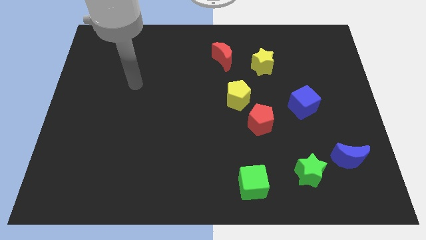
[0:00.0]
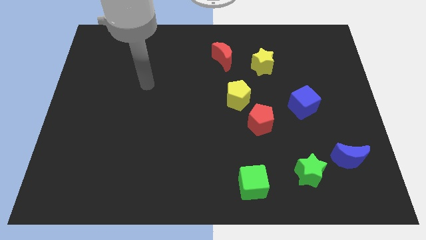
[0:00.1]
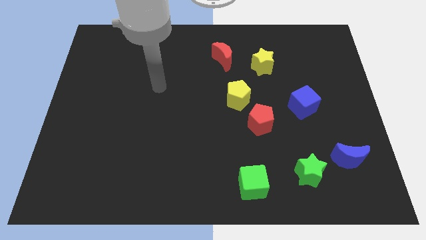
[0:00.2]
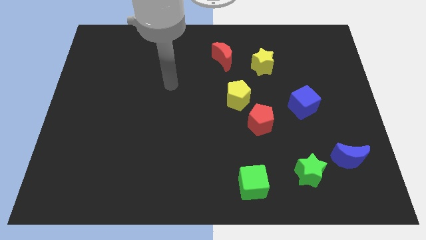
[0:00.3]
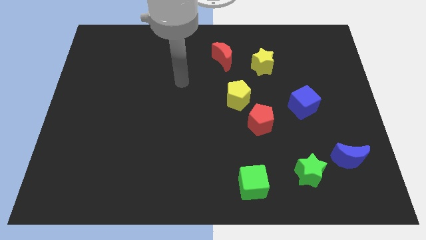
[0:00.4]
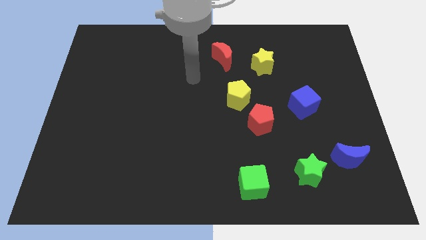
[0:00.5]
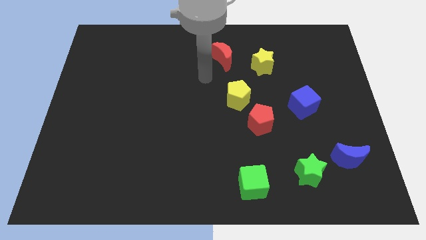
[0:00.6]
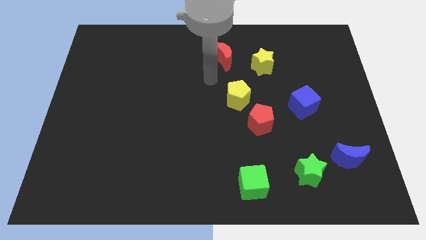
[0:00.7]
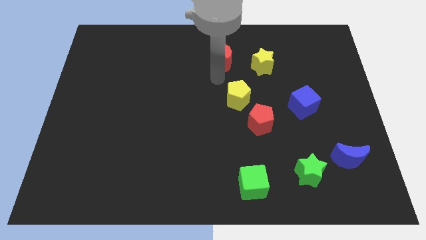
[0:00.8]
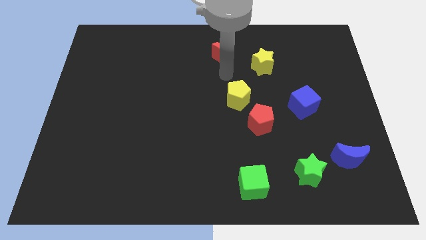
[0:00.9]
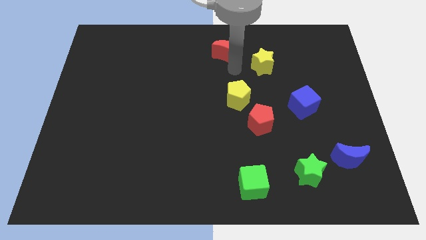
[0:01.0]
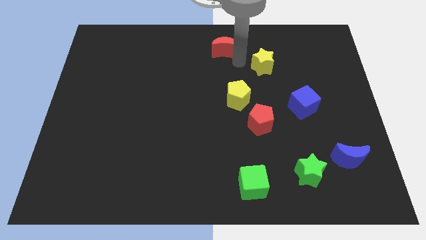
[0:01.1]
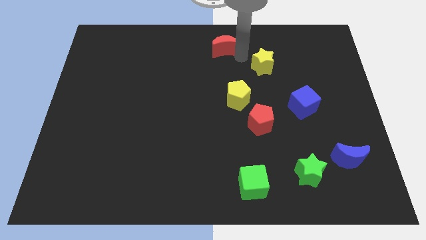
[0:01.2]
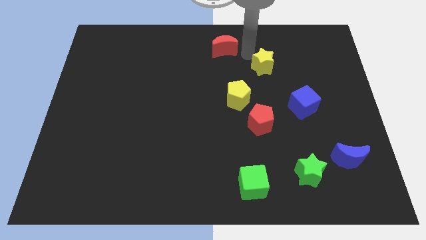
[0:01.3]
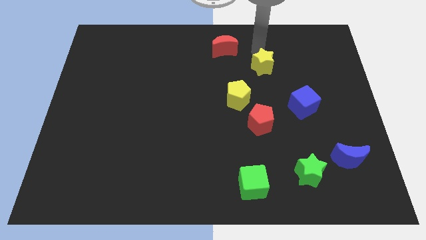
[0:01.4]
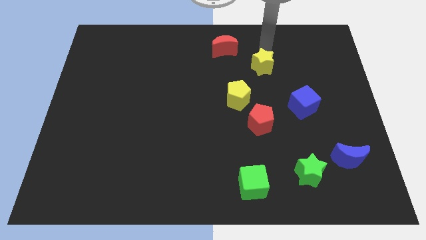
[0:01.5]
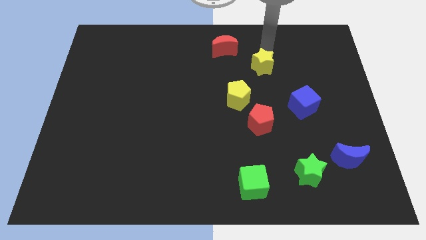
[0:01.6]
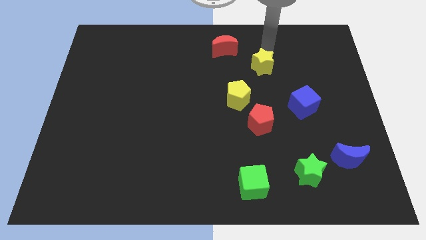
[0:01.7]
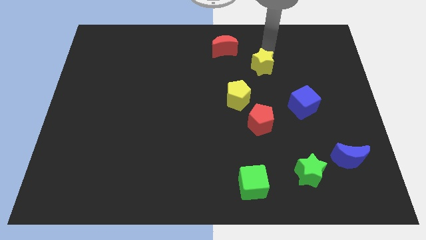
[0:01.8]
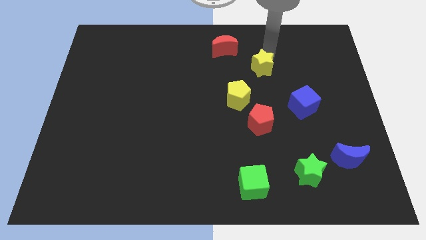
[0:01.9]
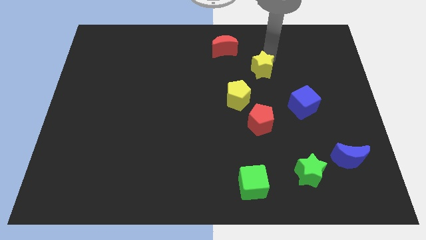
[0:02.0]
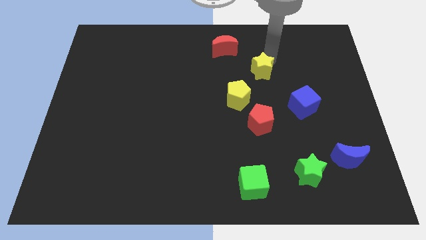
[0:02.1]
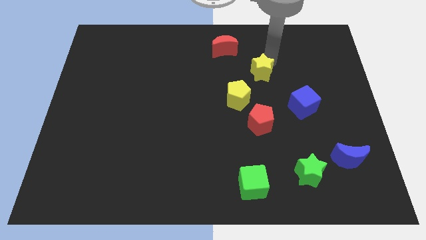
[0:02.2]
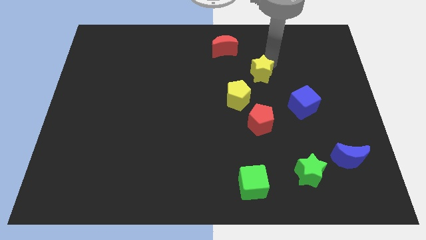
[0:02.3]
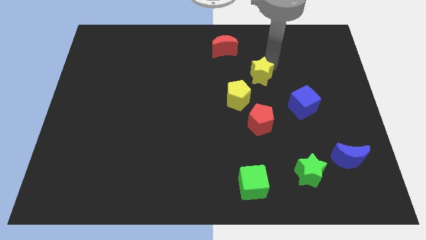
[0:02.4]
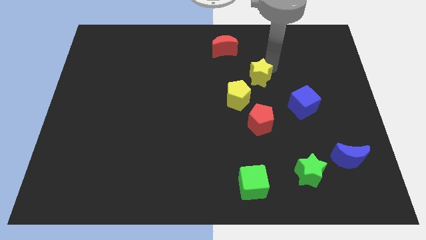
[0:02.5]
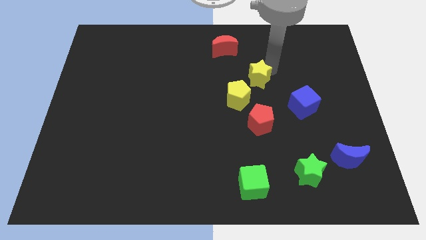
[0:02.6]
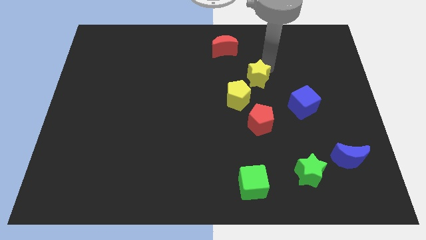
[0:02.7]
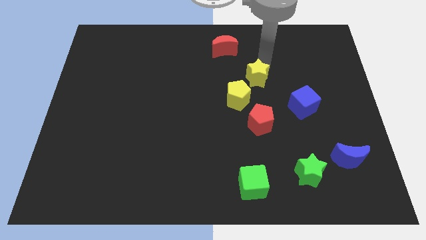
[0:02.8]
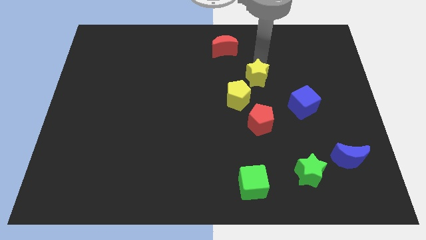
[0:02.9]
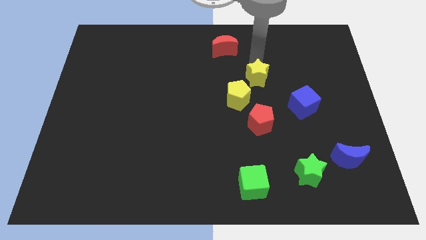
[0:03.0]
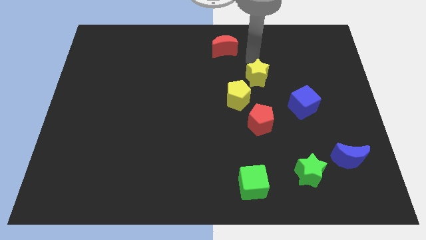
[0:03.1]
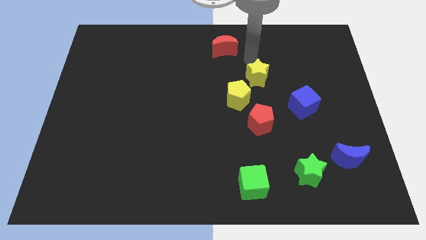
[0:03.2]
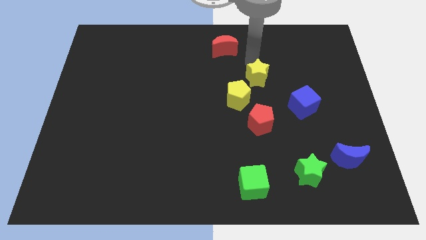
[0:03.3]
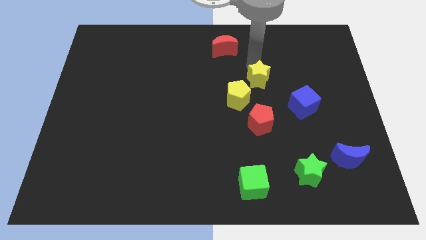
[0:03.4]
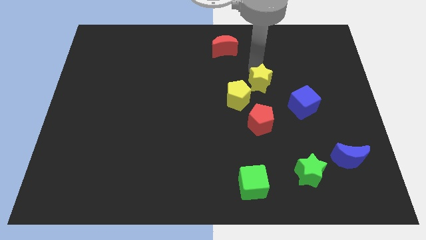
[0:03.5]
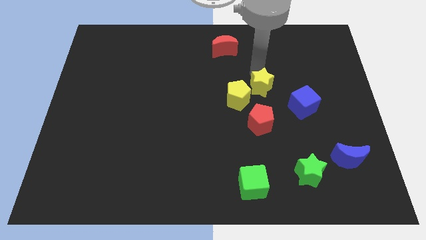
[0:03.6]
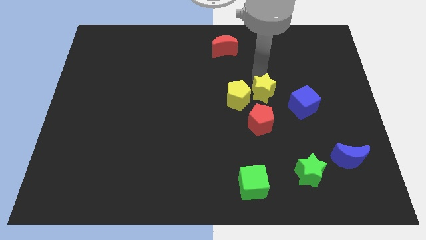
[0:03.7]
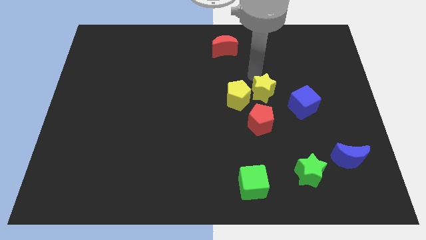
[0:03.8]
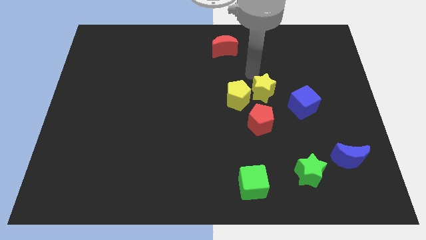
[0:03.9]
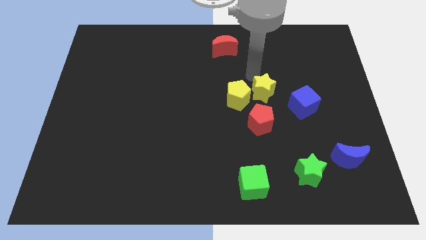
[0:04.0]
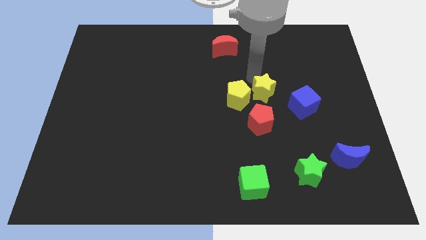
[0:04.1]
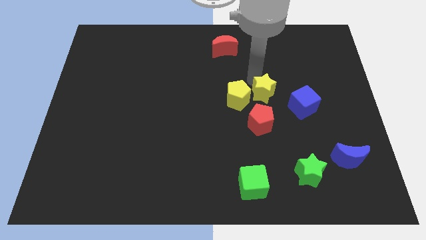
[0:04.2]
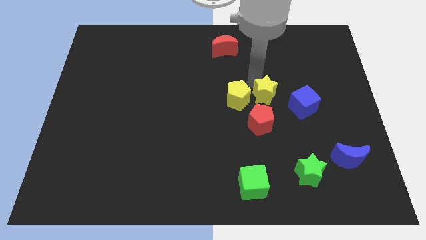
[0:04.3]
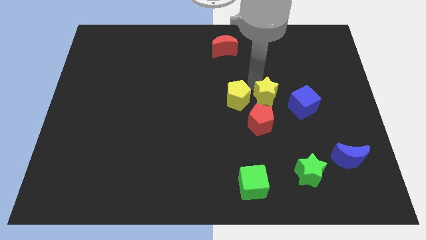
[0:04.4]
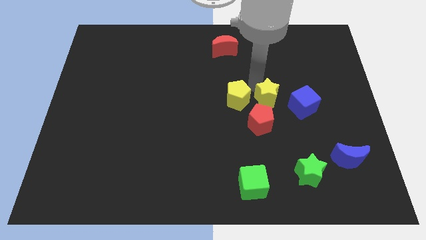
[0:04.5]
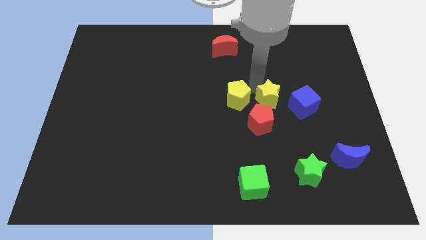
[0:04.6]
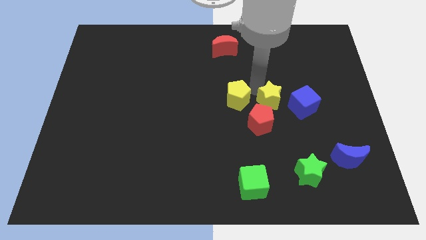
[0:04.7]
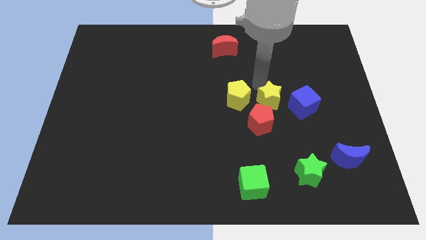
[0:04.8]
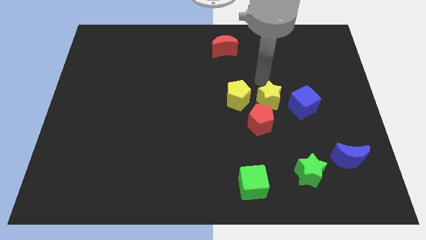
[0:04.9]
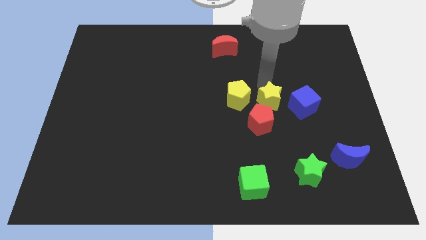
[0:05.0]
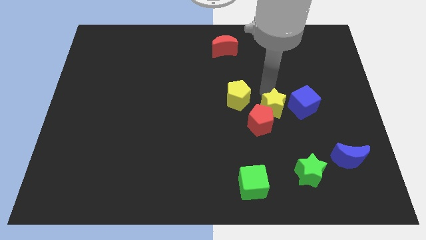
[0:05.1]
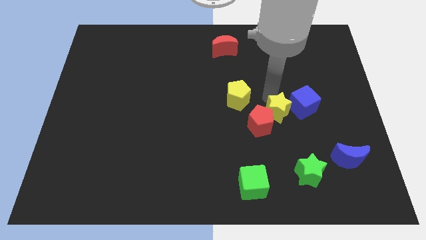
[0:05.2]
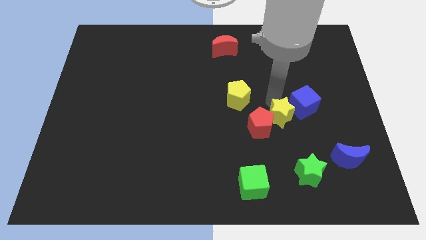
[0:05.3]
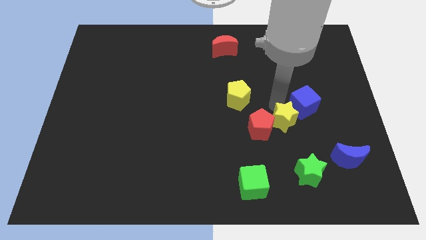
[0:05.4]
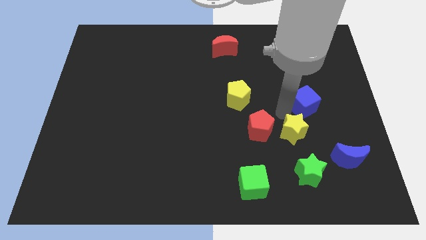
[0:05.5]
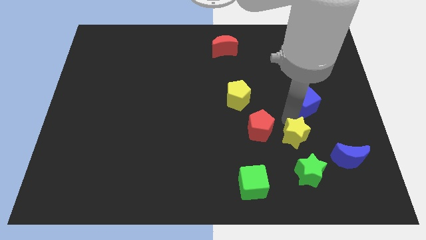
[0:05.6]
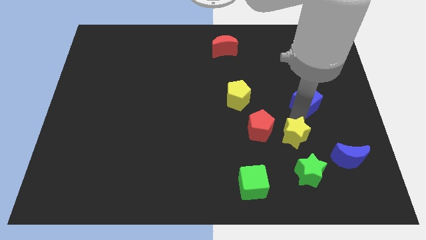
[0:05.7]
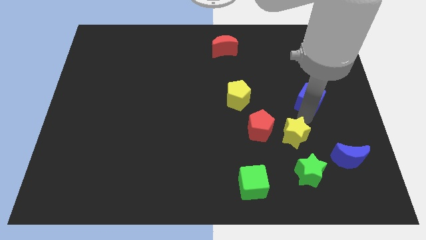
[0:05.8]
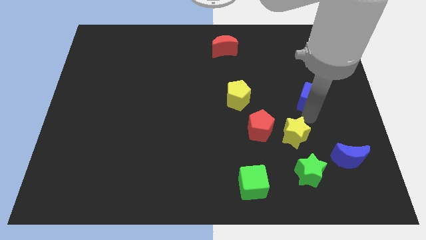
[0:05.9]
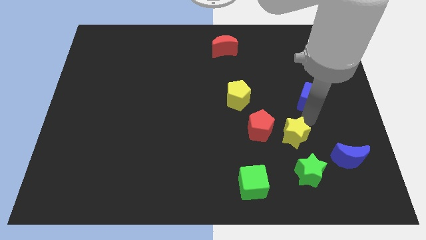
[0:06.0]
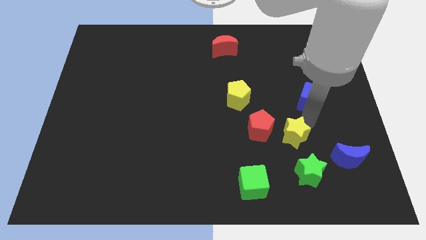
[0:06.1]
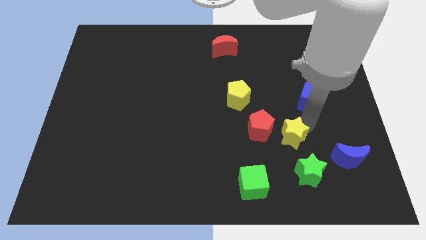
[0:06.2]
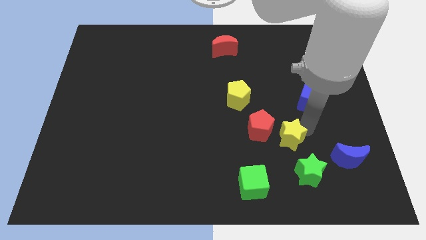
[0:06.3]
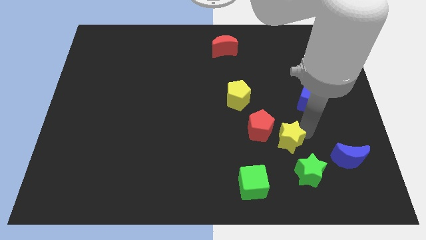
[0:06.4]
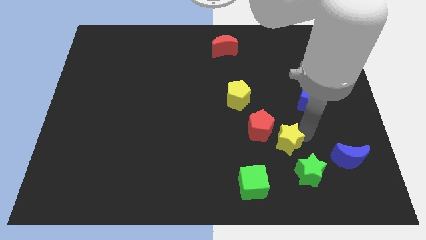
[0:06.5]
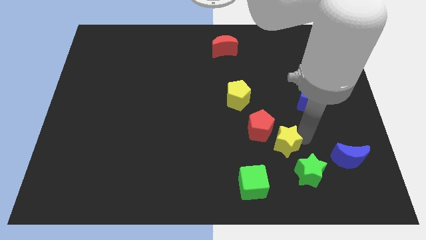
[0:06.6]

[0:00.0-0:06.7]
put the yellow star to the top right of the green cube
